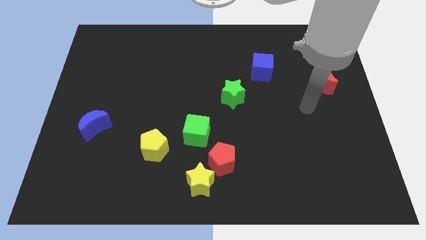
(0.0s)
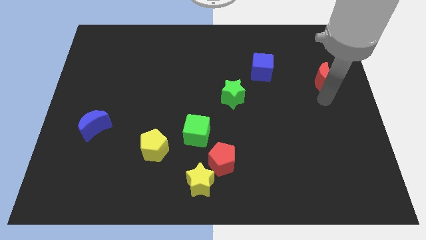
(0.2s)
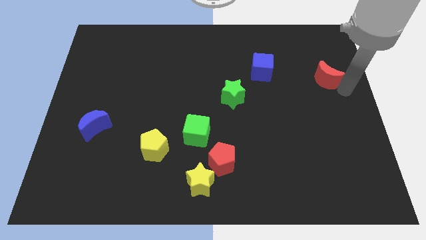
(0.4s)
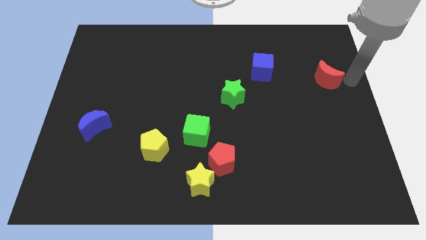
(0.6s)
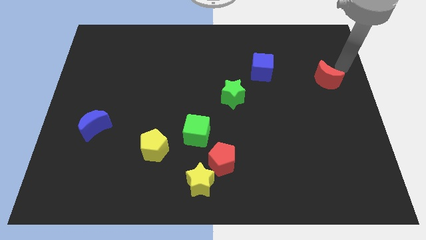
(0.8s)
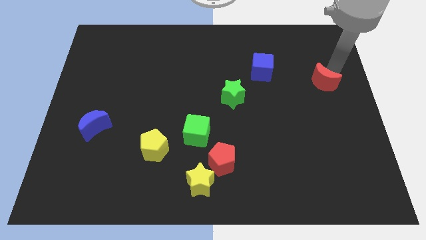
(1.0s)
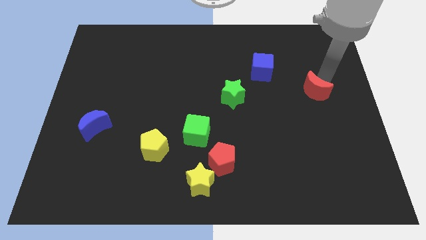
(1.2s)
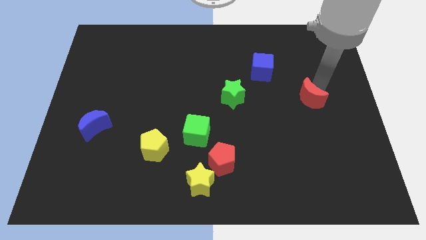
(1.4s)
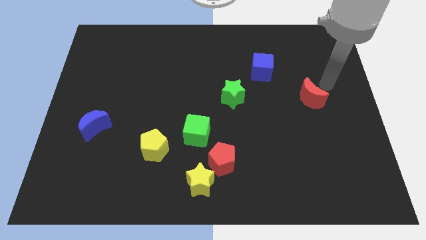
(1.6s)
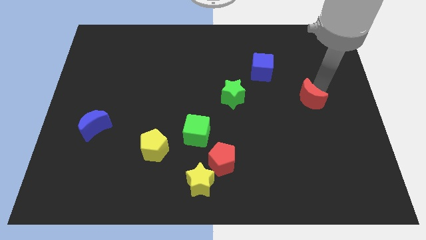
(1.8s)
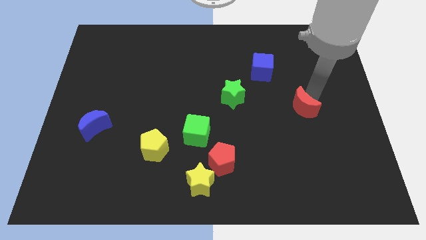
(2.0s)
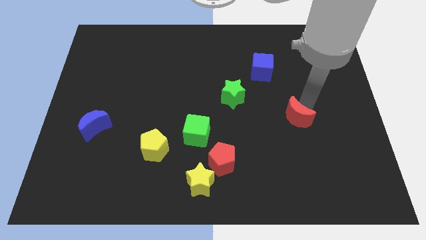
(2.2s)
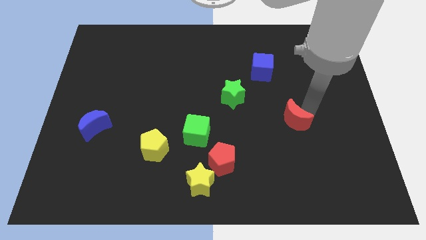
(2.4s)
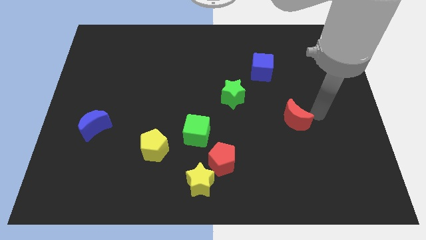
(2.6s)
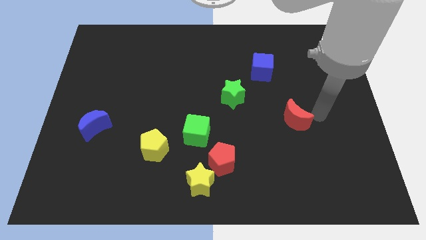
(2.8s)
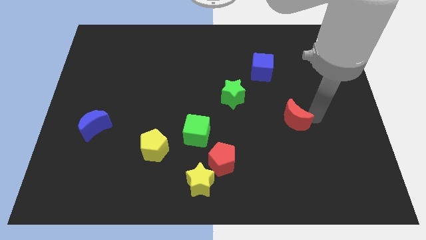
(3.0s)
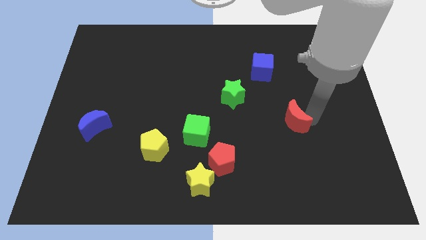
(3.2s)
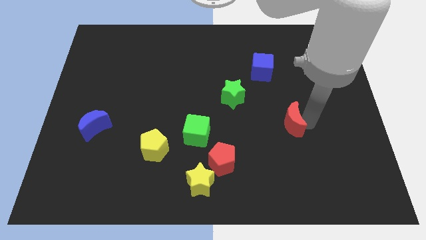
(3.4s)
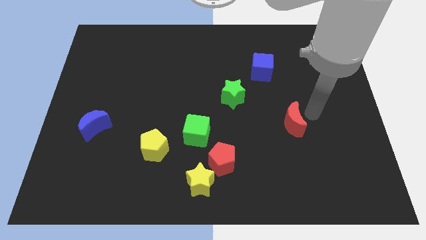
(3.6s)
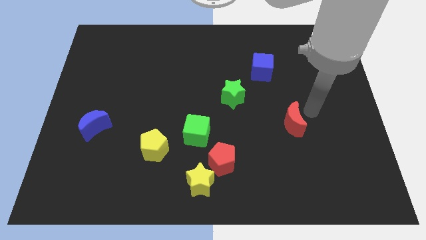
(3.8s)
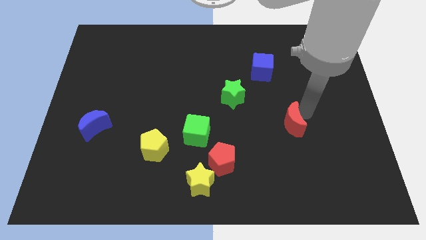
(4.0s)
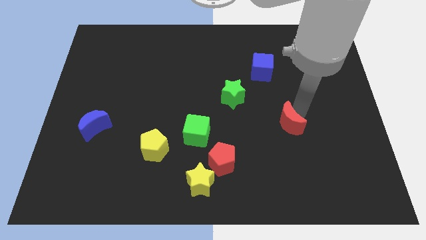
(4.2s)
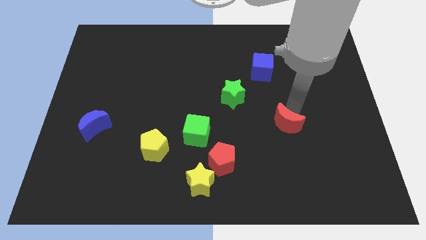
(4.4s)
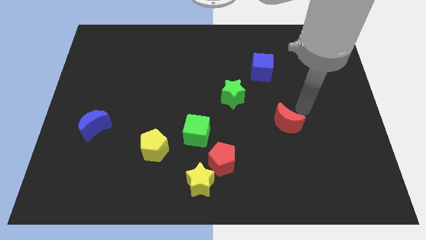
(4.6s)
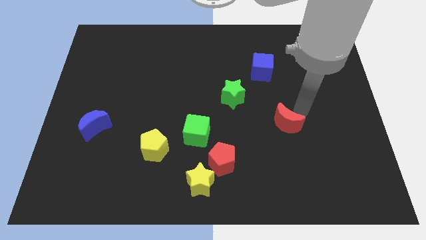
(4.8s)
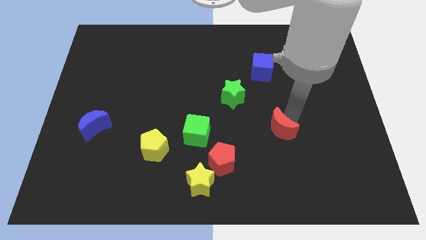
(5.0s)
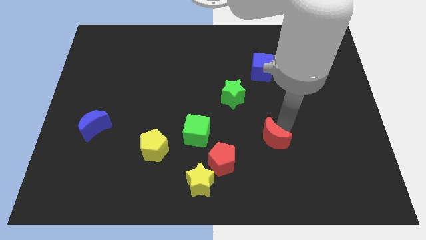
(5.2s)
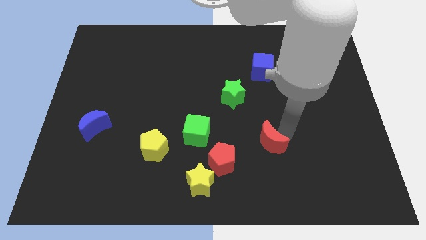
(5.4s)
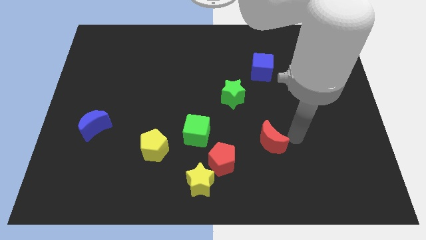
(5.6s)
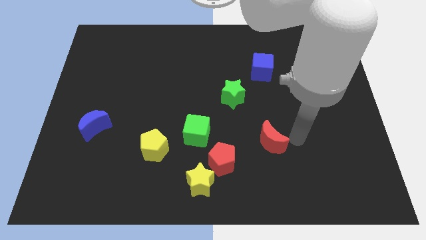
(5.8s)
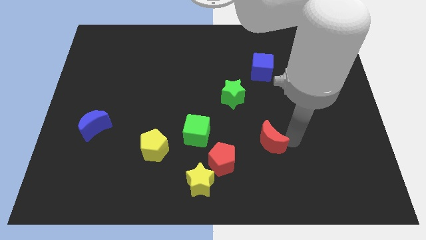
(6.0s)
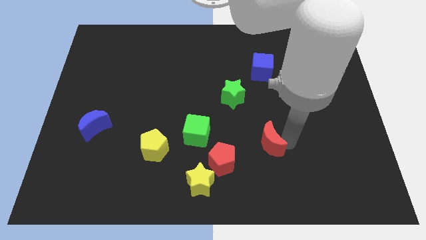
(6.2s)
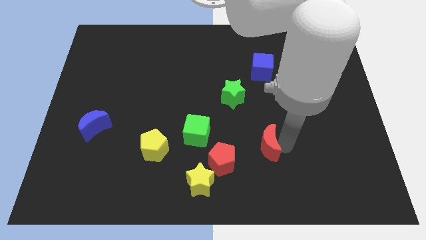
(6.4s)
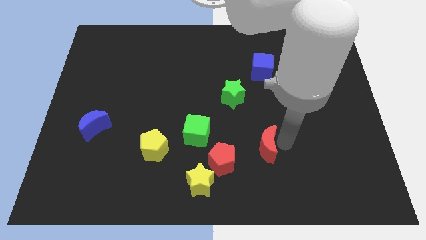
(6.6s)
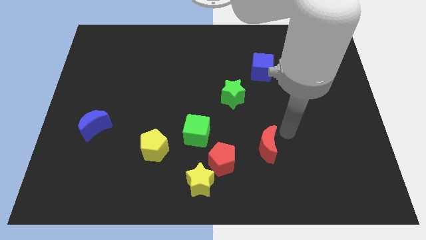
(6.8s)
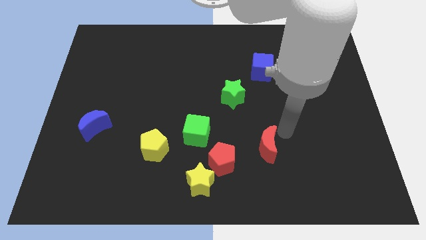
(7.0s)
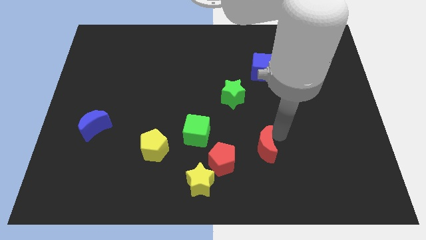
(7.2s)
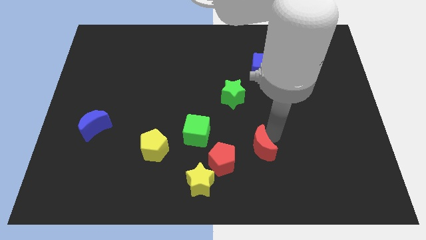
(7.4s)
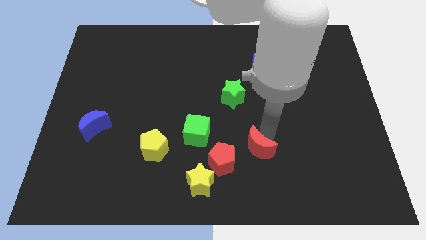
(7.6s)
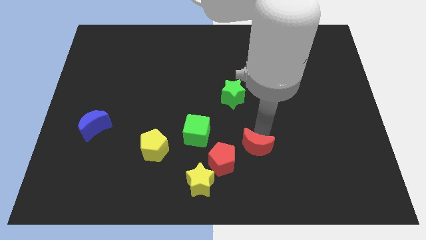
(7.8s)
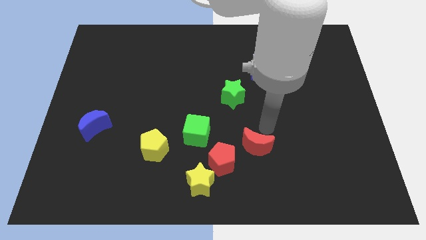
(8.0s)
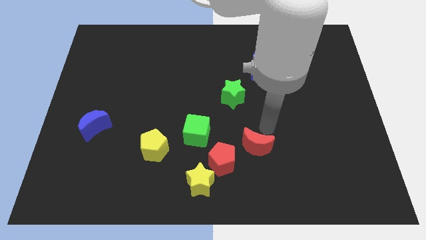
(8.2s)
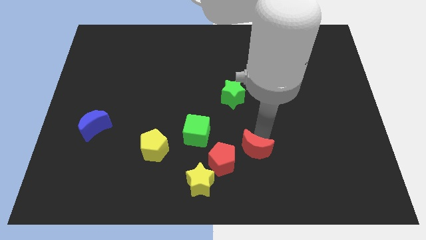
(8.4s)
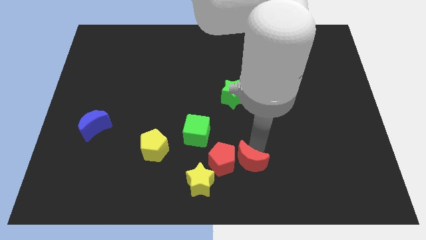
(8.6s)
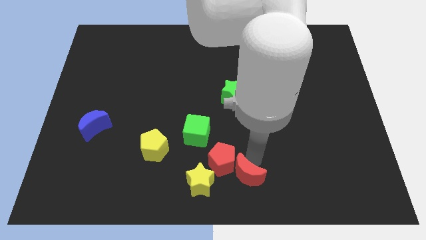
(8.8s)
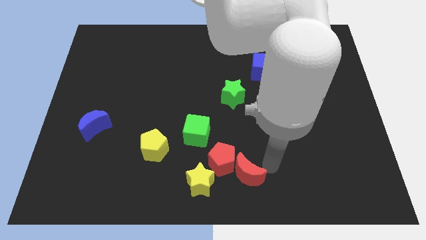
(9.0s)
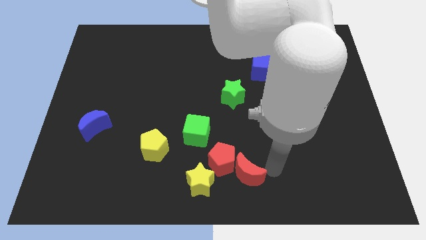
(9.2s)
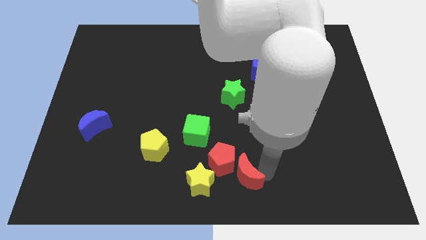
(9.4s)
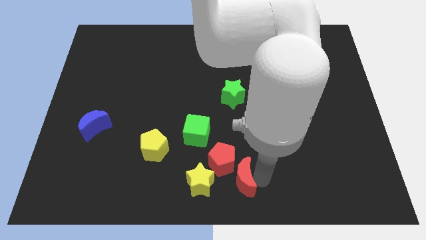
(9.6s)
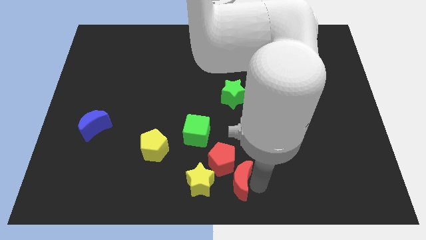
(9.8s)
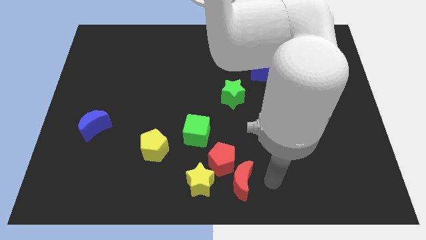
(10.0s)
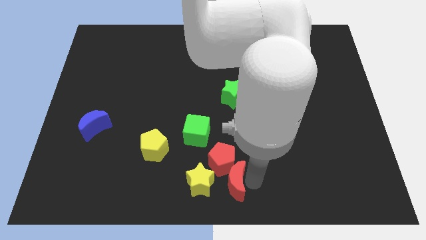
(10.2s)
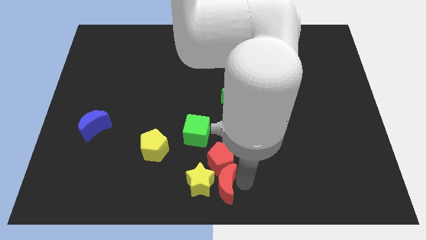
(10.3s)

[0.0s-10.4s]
put the red moon to the yellow star

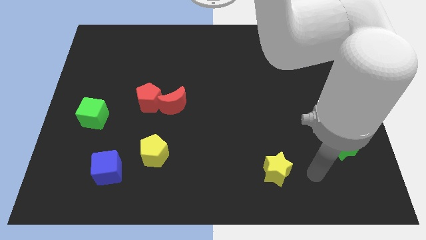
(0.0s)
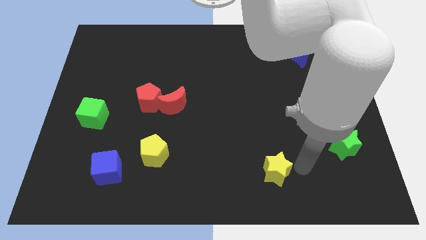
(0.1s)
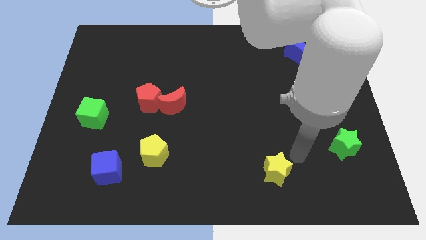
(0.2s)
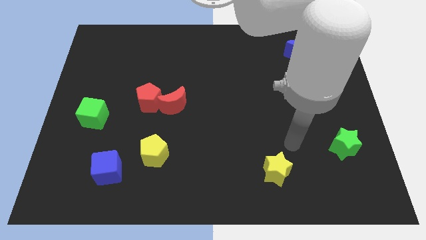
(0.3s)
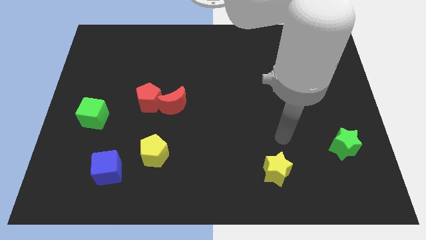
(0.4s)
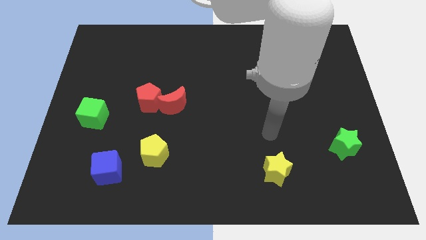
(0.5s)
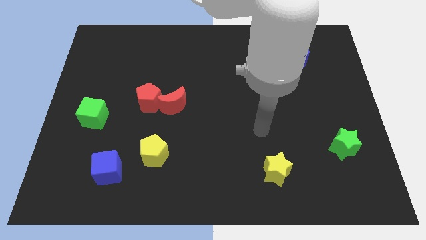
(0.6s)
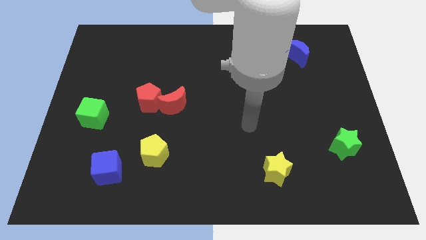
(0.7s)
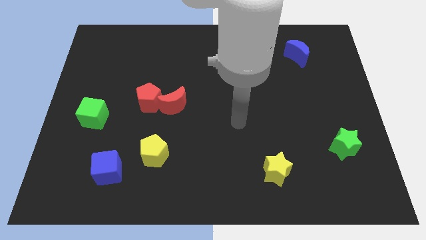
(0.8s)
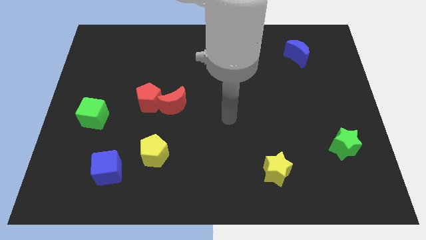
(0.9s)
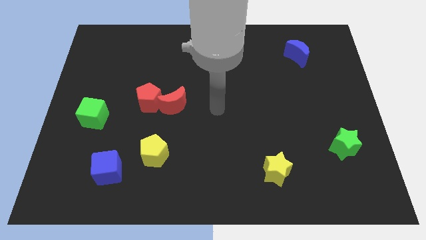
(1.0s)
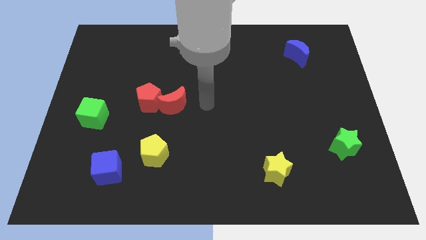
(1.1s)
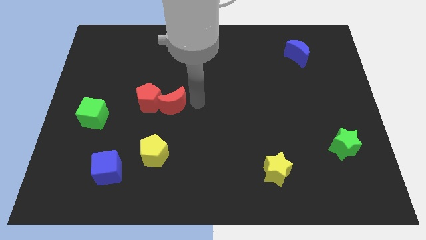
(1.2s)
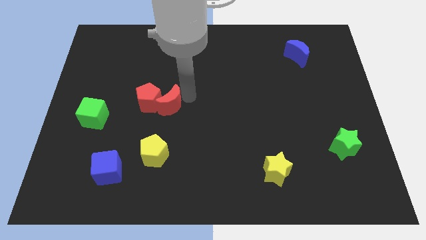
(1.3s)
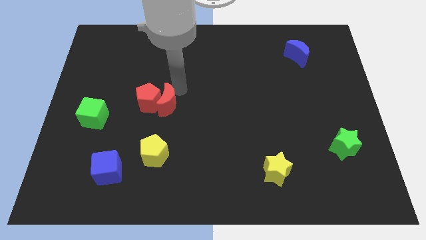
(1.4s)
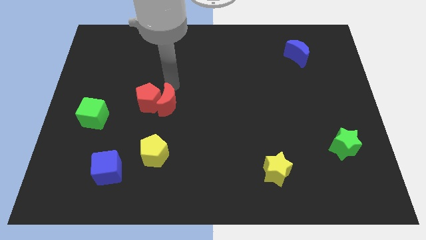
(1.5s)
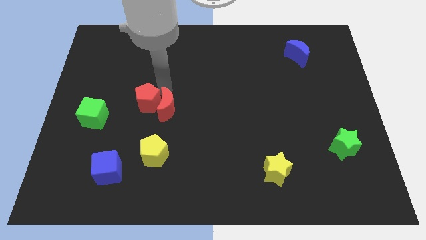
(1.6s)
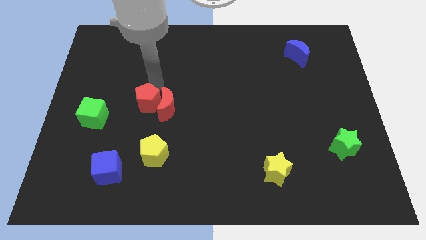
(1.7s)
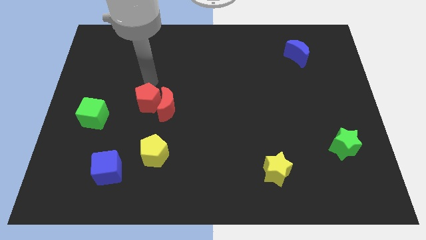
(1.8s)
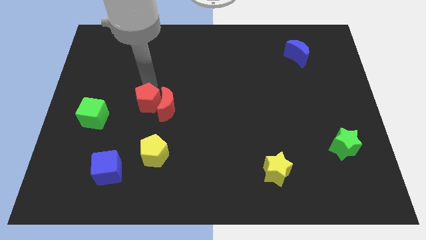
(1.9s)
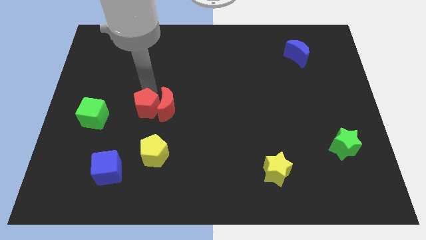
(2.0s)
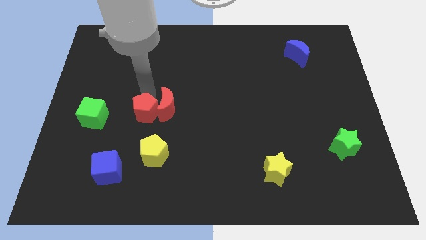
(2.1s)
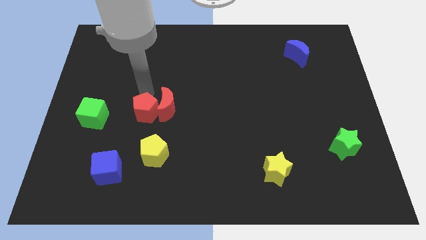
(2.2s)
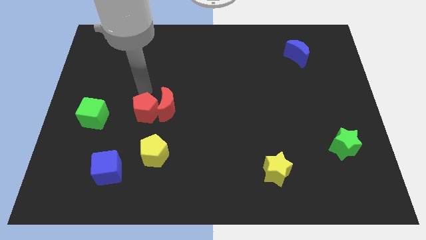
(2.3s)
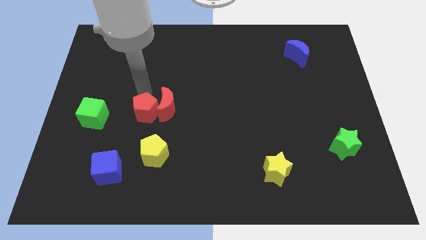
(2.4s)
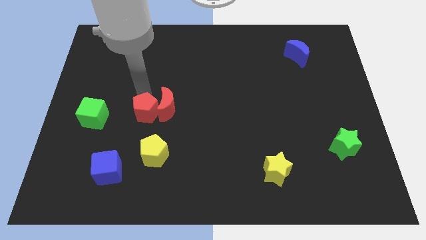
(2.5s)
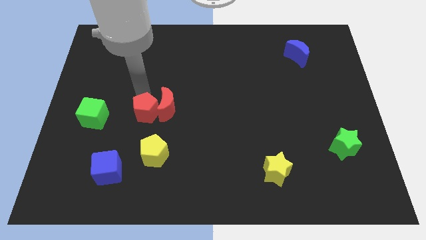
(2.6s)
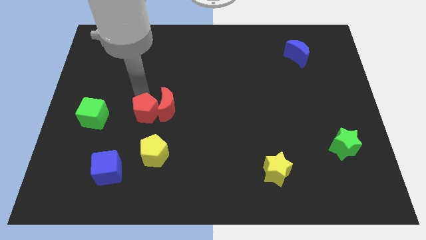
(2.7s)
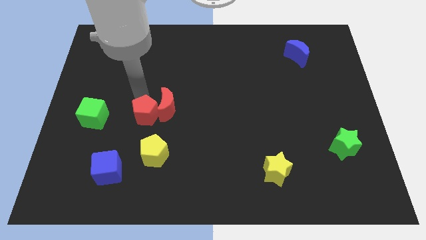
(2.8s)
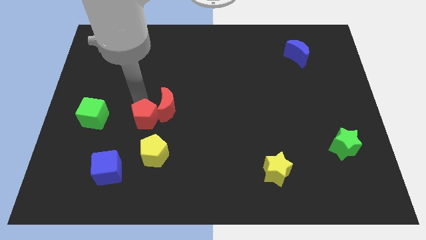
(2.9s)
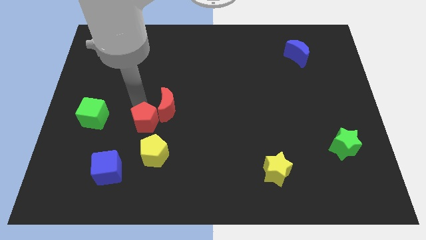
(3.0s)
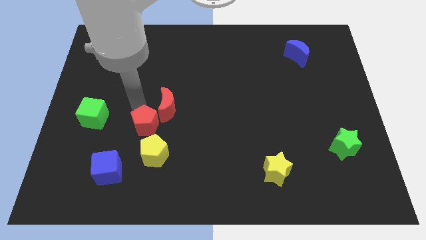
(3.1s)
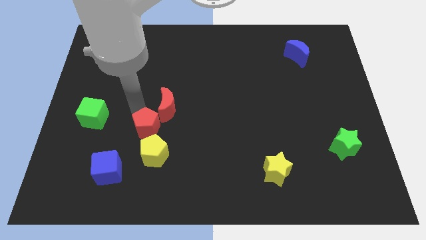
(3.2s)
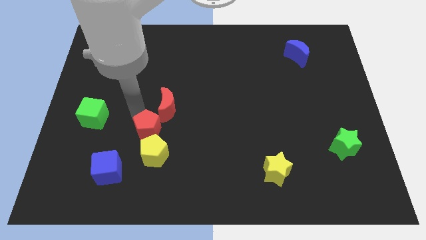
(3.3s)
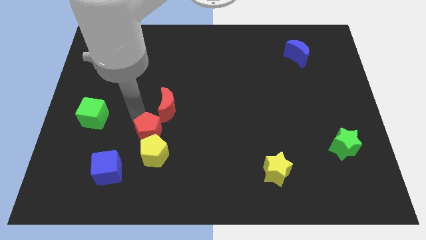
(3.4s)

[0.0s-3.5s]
slide the red pentagon to the yellow pentagon
